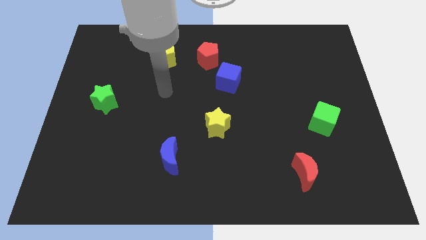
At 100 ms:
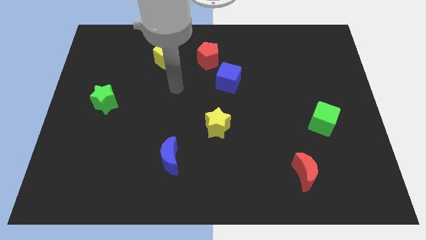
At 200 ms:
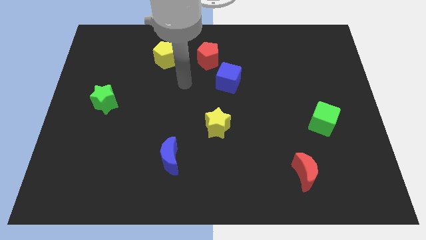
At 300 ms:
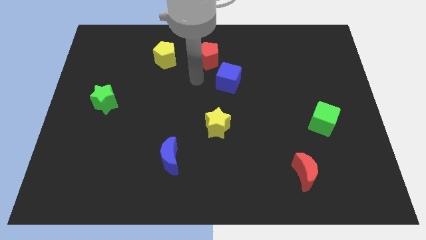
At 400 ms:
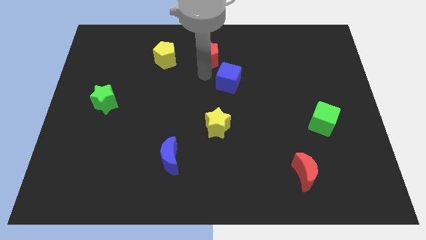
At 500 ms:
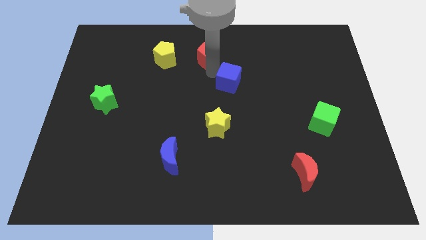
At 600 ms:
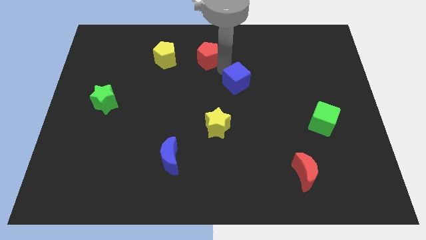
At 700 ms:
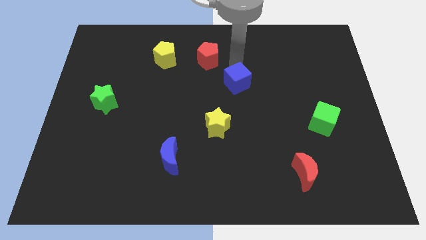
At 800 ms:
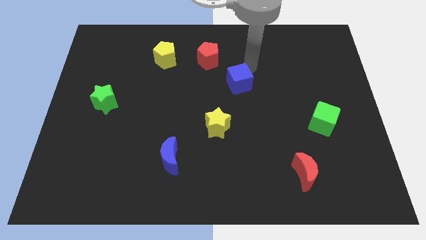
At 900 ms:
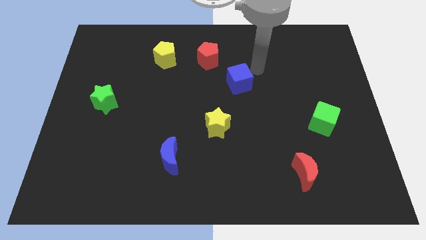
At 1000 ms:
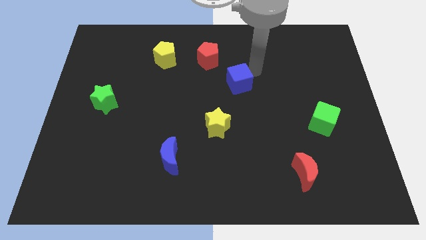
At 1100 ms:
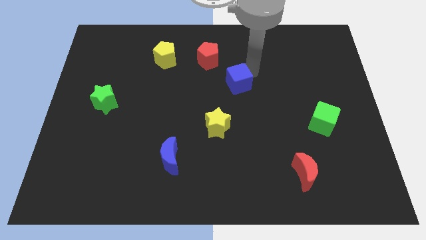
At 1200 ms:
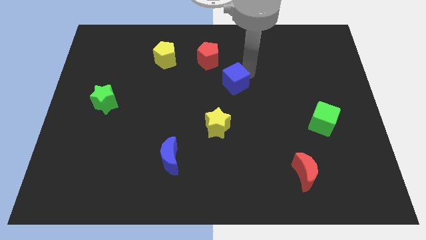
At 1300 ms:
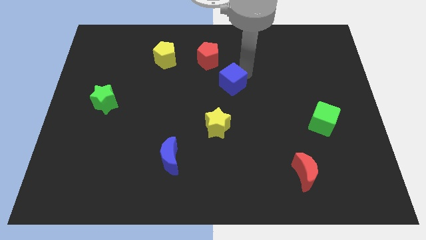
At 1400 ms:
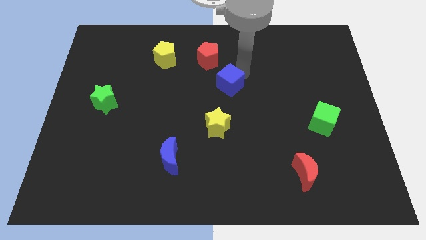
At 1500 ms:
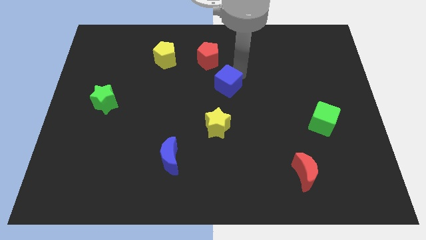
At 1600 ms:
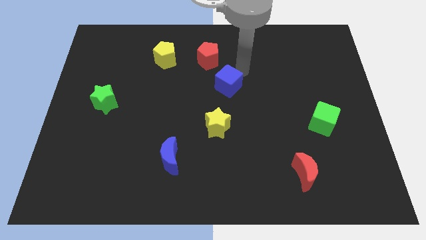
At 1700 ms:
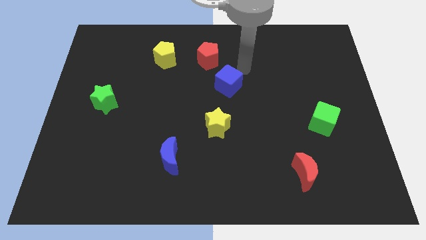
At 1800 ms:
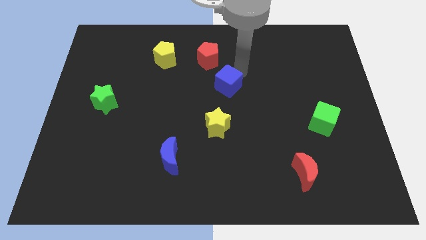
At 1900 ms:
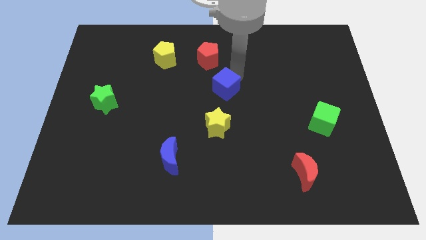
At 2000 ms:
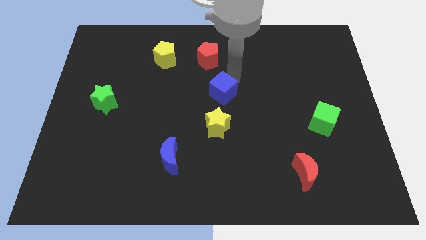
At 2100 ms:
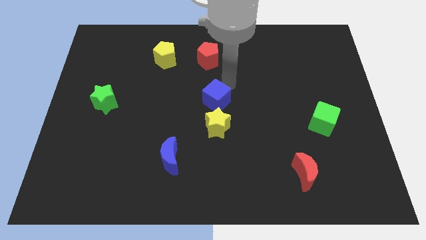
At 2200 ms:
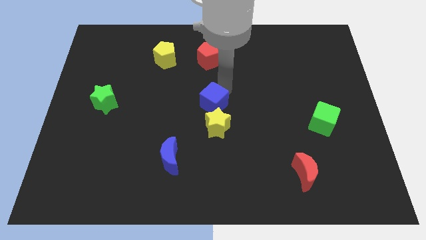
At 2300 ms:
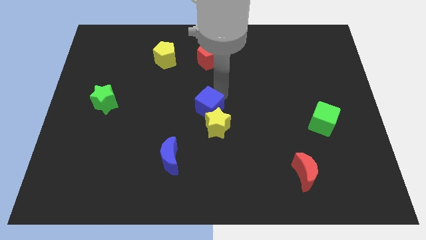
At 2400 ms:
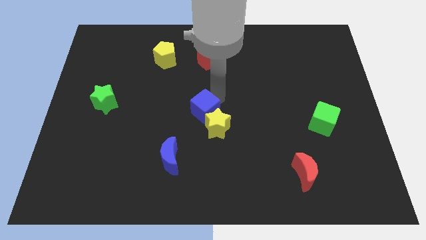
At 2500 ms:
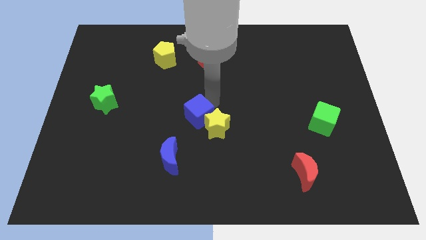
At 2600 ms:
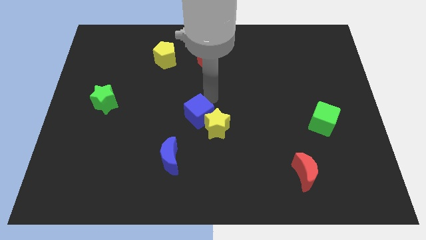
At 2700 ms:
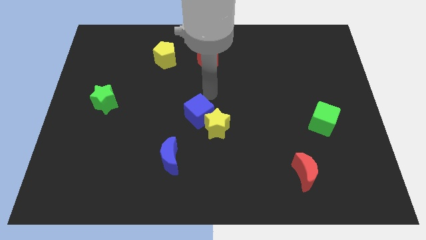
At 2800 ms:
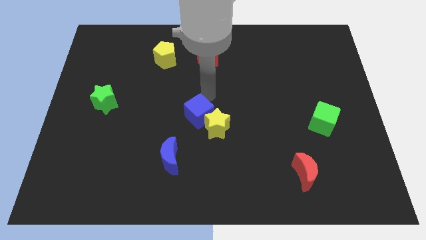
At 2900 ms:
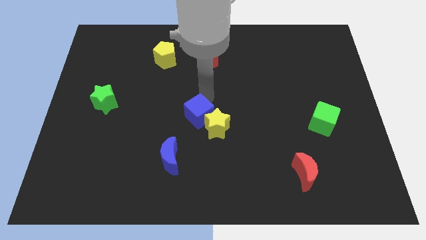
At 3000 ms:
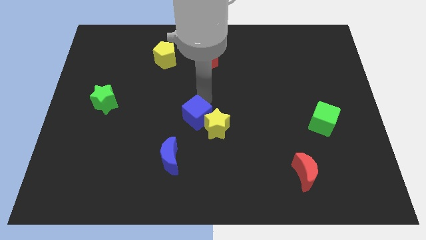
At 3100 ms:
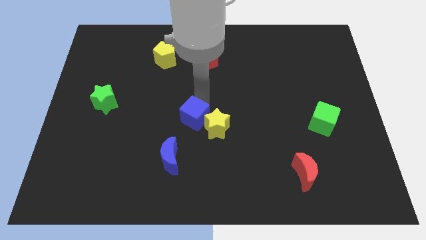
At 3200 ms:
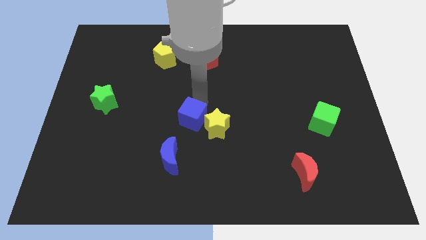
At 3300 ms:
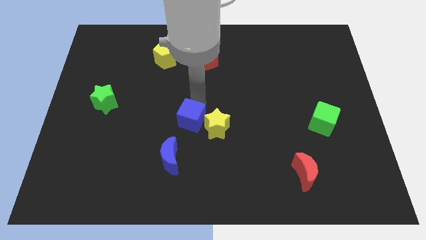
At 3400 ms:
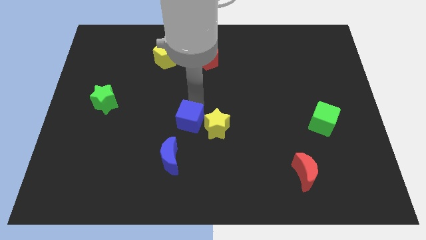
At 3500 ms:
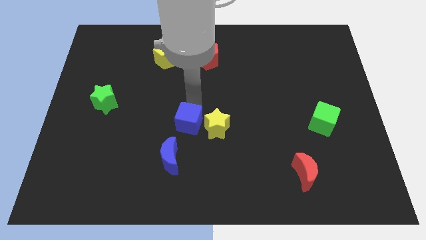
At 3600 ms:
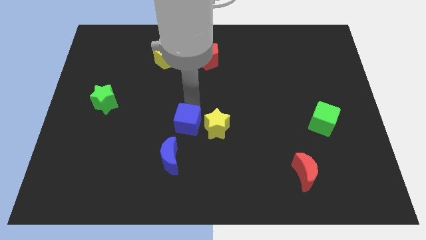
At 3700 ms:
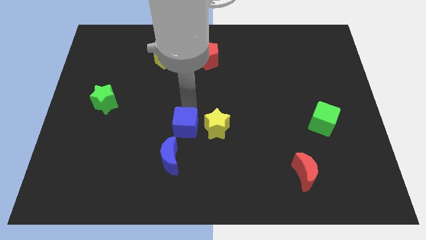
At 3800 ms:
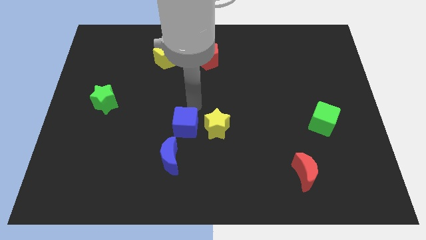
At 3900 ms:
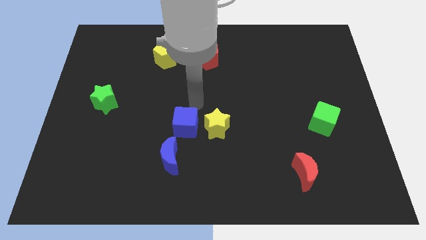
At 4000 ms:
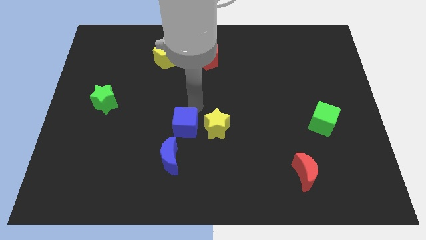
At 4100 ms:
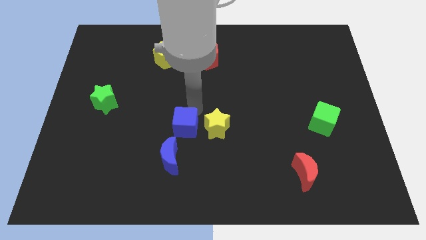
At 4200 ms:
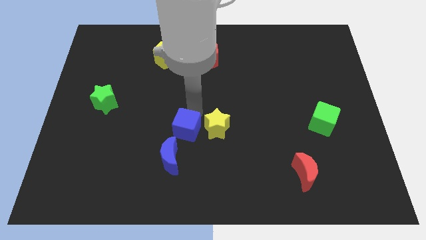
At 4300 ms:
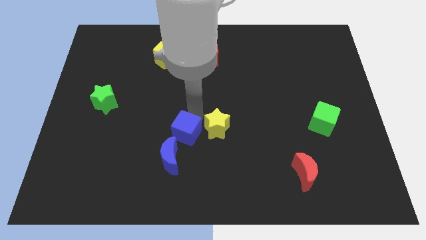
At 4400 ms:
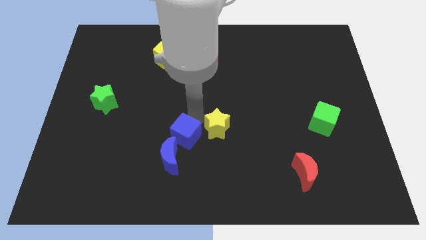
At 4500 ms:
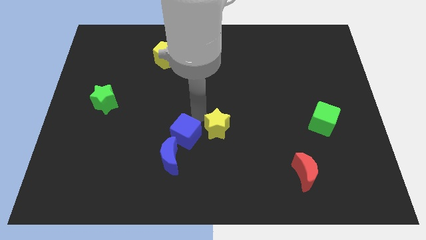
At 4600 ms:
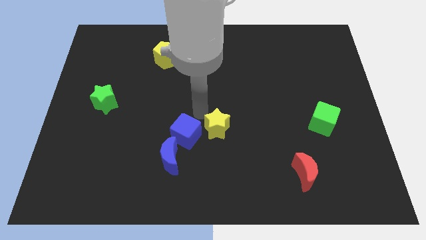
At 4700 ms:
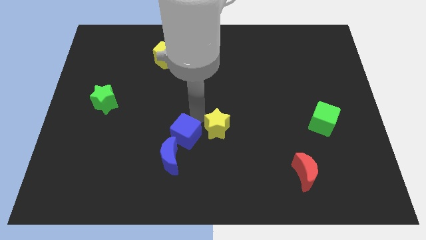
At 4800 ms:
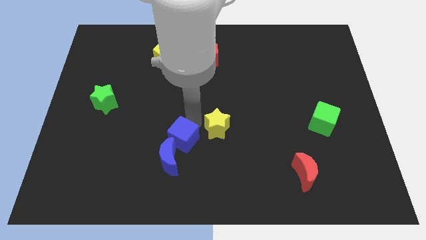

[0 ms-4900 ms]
move the blue cube to the blue moon

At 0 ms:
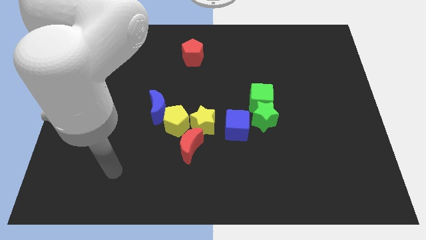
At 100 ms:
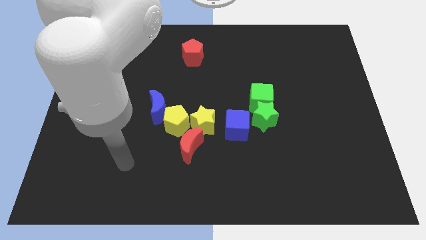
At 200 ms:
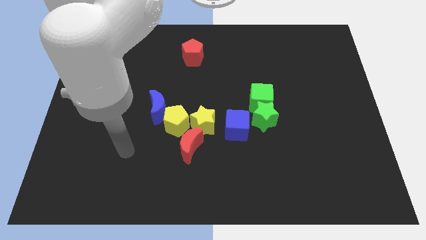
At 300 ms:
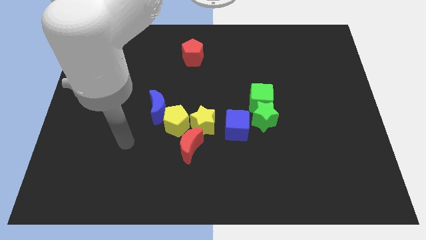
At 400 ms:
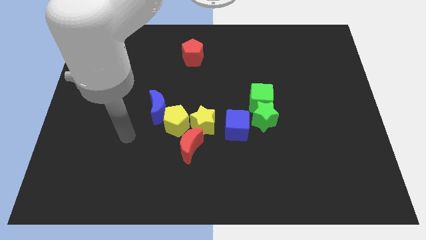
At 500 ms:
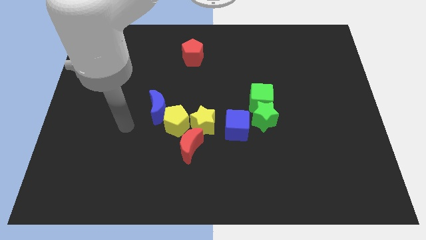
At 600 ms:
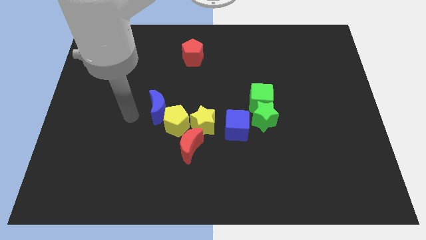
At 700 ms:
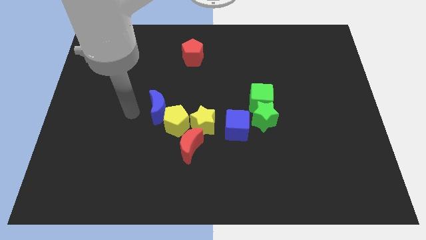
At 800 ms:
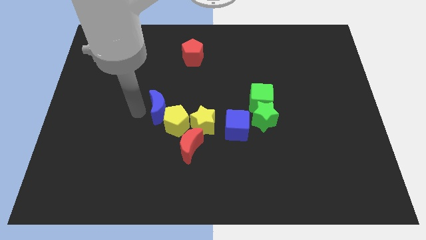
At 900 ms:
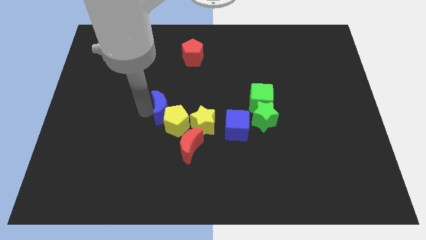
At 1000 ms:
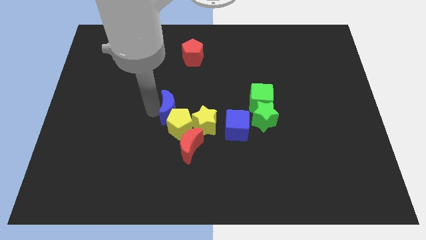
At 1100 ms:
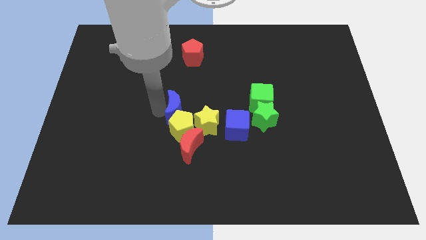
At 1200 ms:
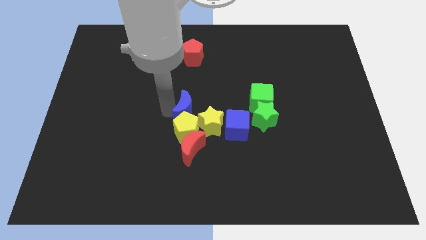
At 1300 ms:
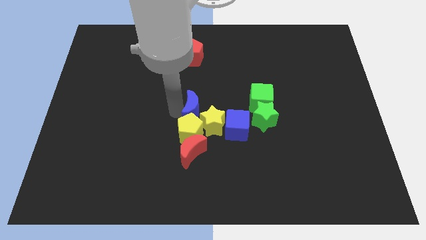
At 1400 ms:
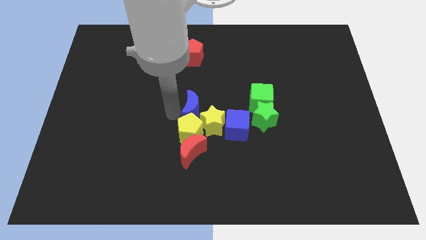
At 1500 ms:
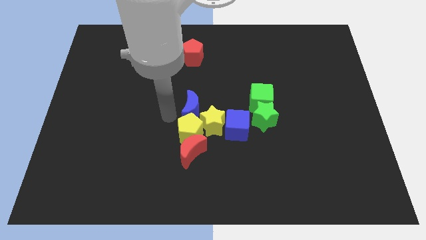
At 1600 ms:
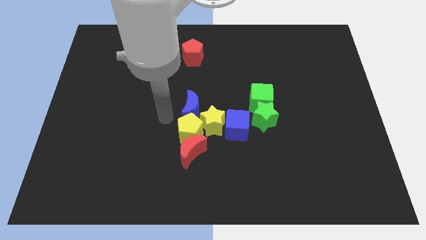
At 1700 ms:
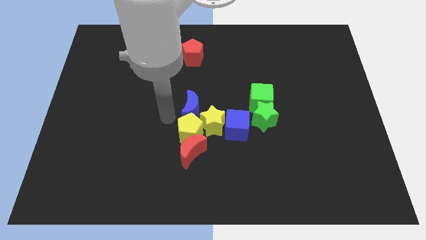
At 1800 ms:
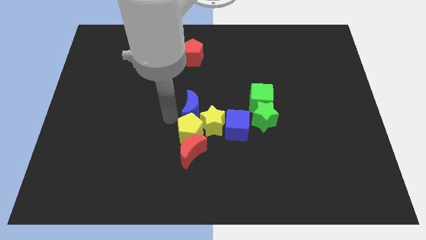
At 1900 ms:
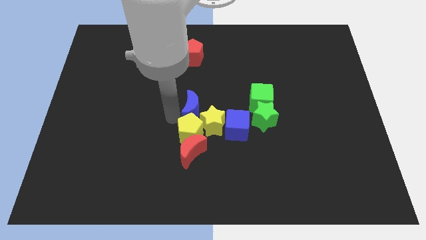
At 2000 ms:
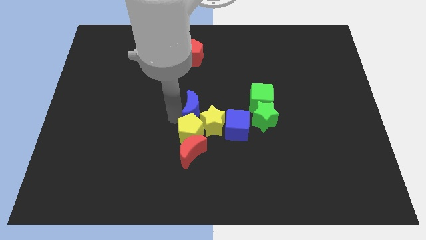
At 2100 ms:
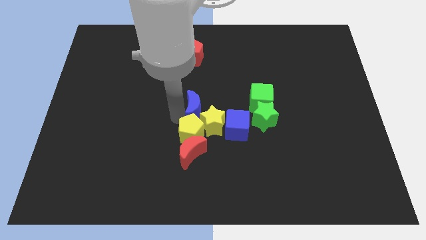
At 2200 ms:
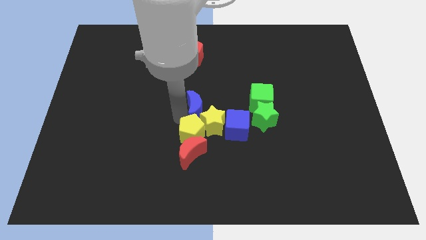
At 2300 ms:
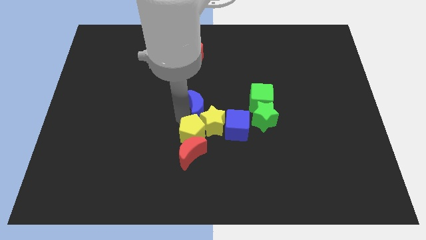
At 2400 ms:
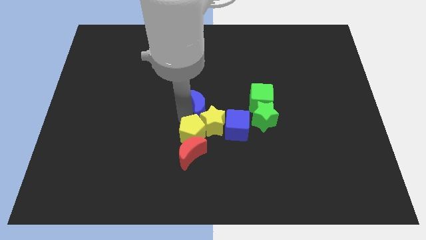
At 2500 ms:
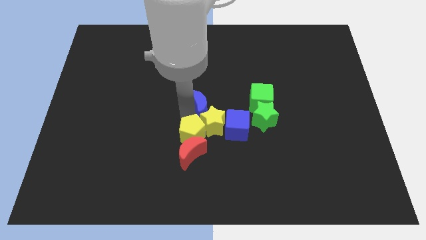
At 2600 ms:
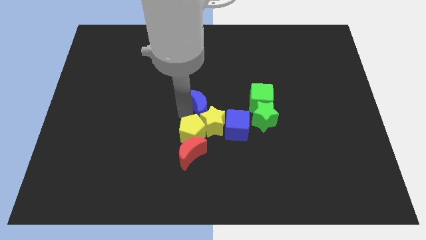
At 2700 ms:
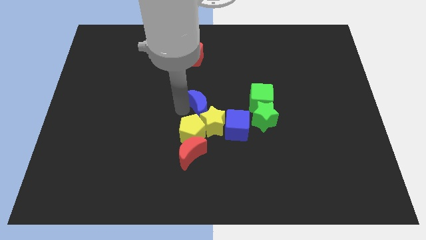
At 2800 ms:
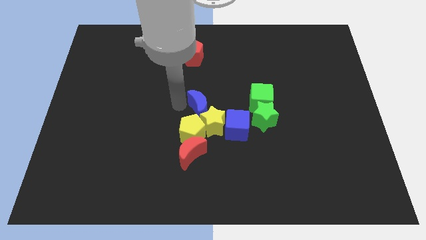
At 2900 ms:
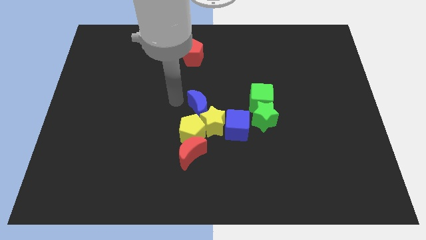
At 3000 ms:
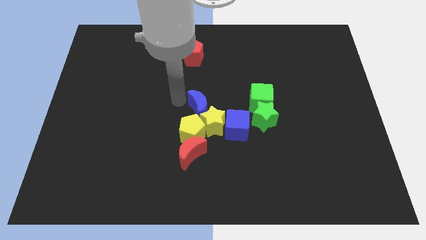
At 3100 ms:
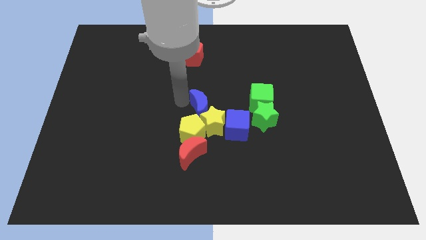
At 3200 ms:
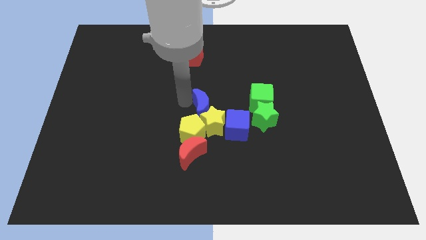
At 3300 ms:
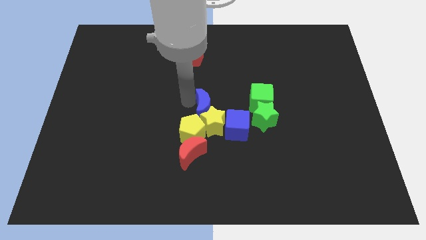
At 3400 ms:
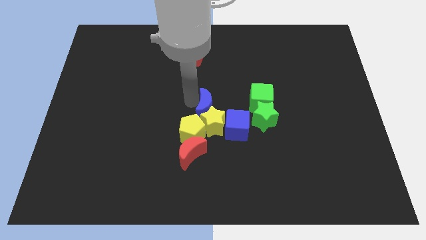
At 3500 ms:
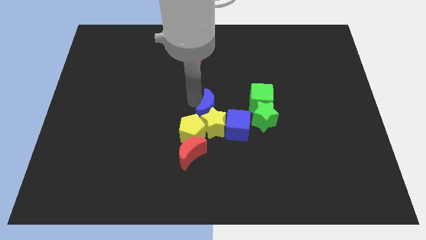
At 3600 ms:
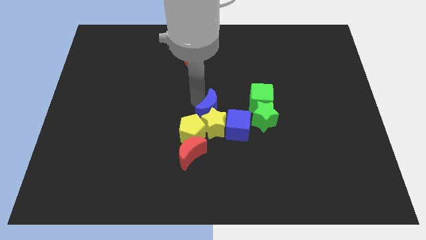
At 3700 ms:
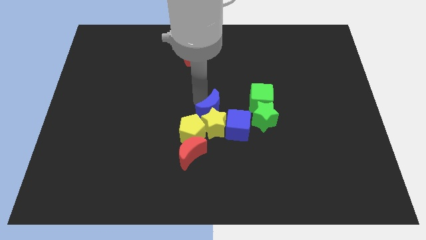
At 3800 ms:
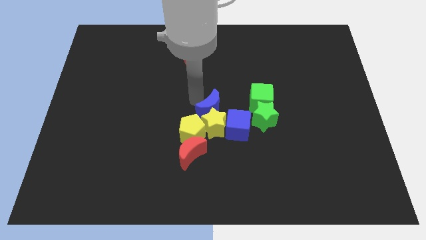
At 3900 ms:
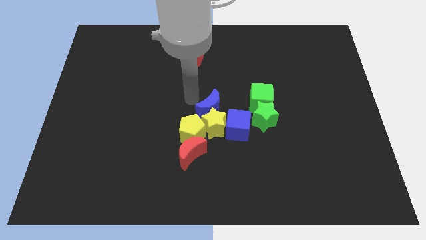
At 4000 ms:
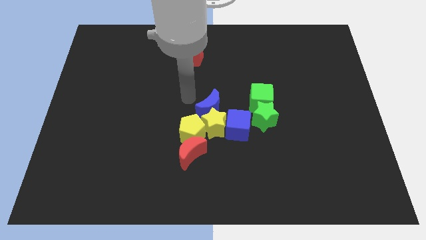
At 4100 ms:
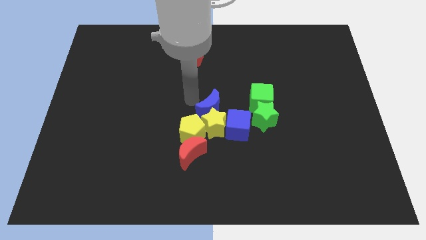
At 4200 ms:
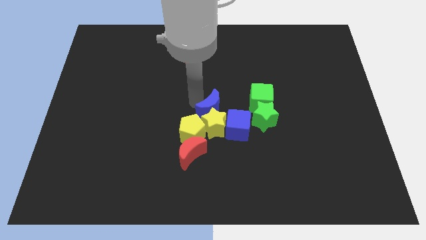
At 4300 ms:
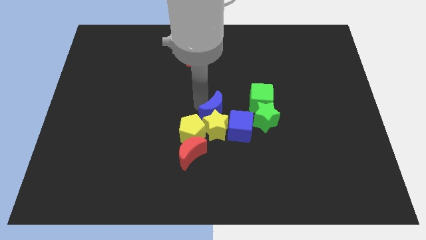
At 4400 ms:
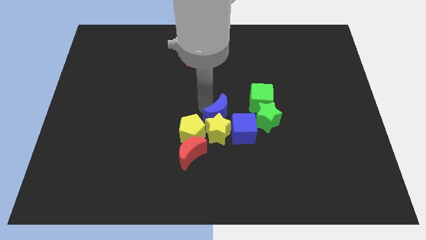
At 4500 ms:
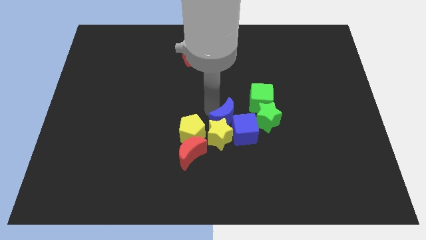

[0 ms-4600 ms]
push the blue moon close to the blue cube
